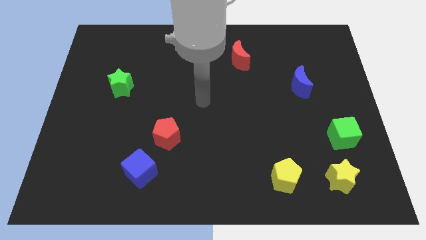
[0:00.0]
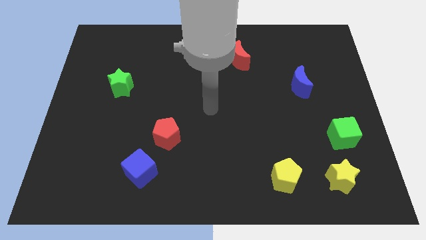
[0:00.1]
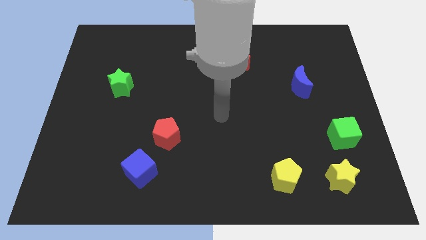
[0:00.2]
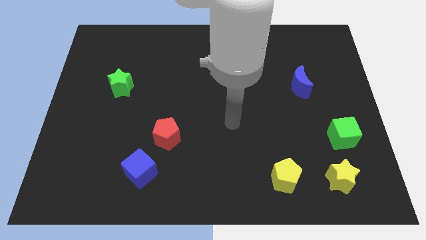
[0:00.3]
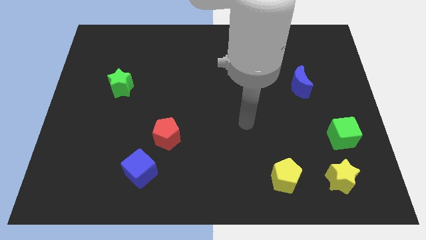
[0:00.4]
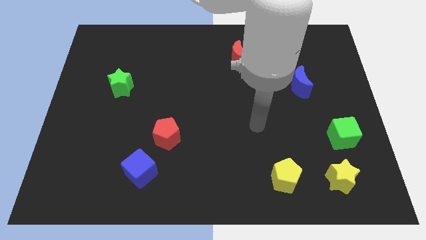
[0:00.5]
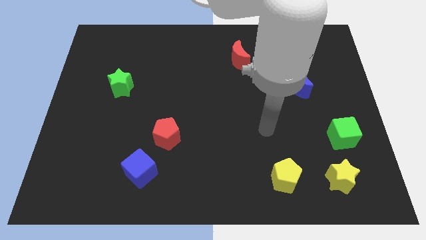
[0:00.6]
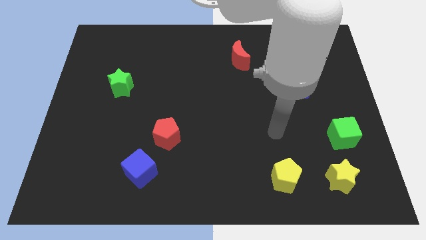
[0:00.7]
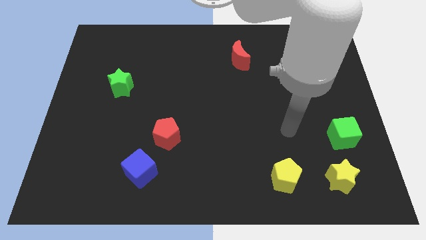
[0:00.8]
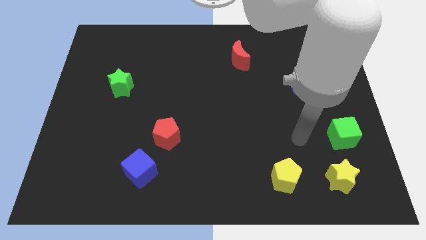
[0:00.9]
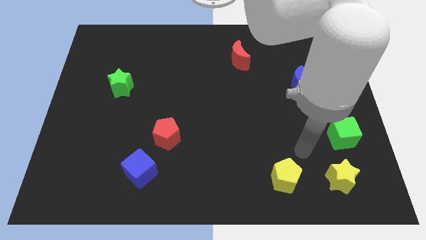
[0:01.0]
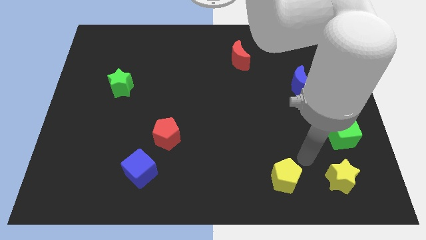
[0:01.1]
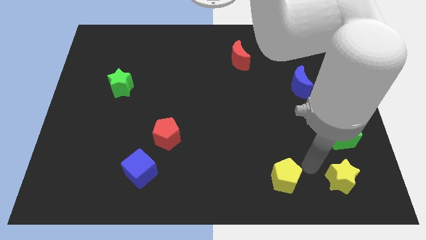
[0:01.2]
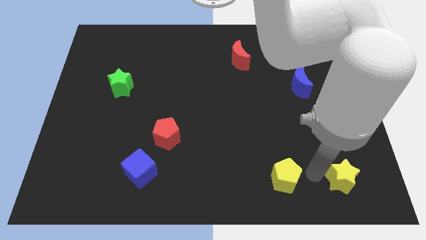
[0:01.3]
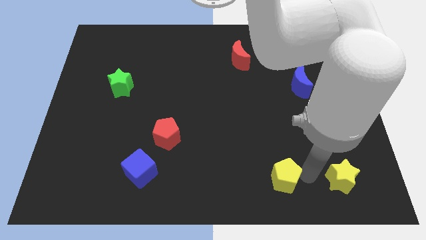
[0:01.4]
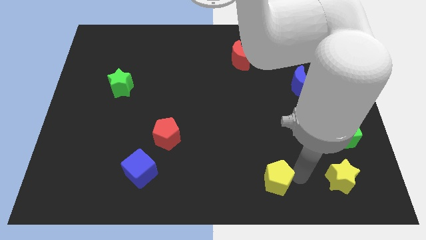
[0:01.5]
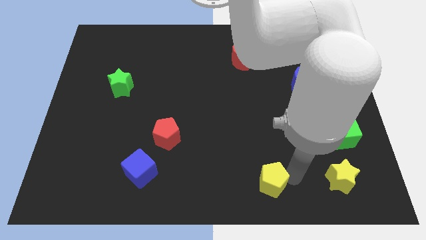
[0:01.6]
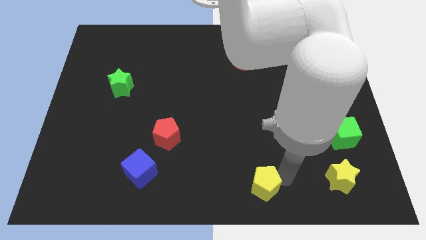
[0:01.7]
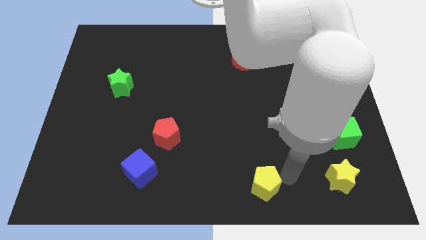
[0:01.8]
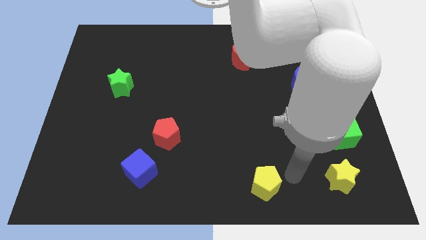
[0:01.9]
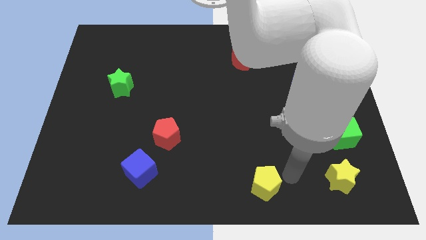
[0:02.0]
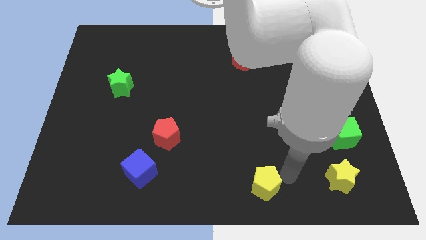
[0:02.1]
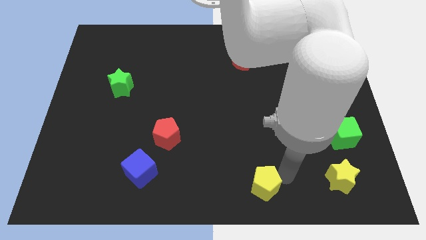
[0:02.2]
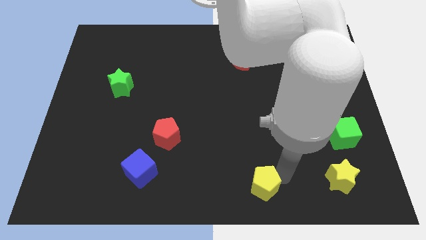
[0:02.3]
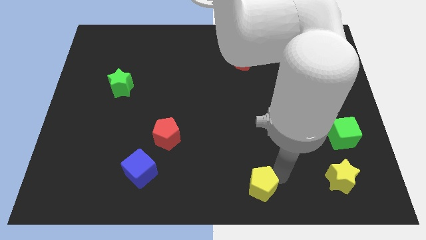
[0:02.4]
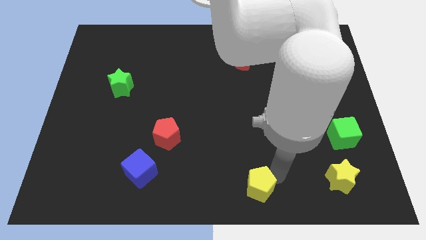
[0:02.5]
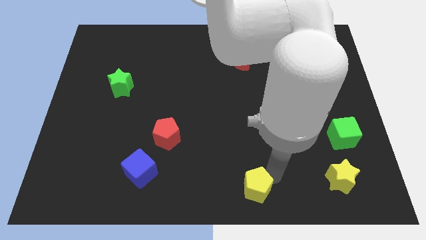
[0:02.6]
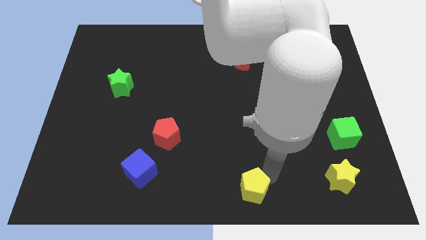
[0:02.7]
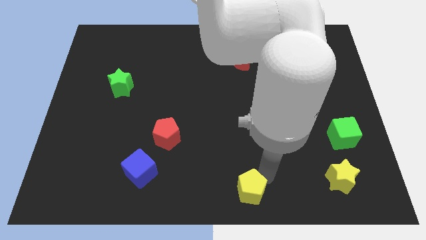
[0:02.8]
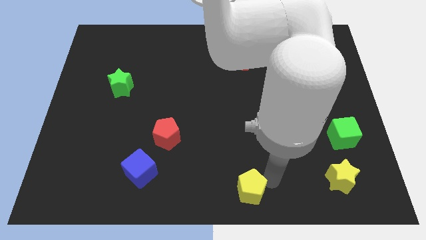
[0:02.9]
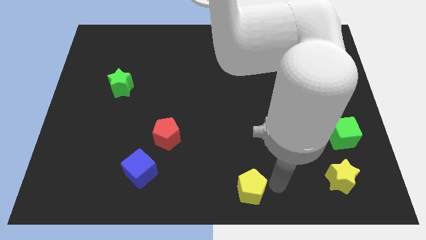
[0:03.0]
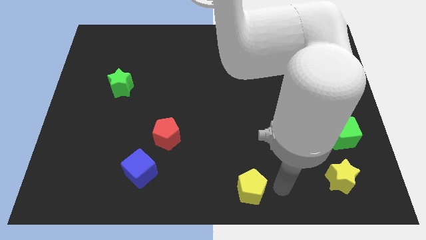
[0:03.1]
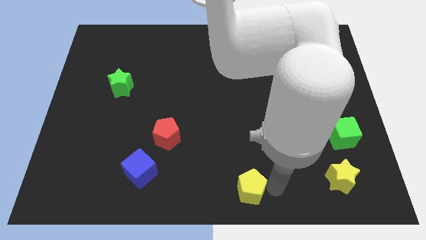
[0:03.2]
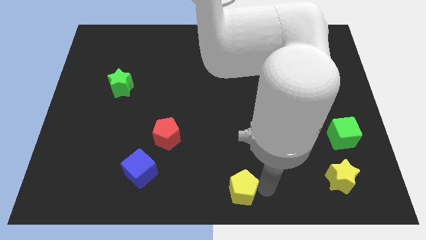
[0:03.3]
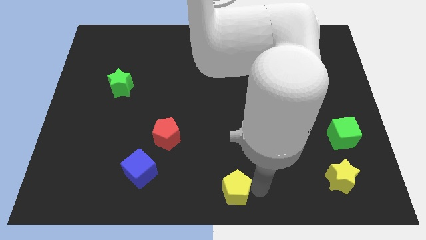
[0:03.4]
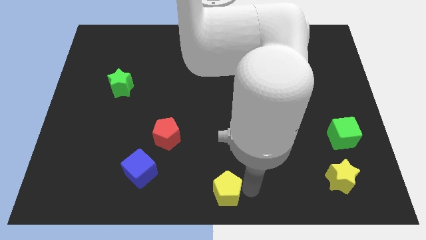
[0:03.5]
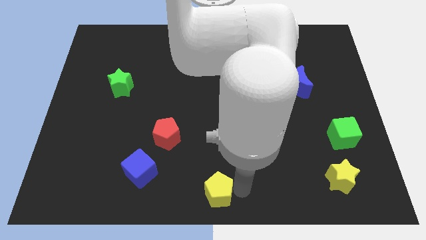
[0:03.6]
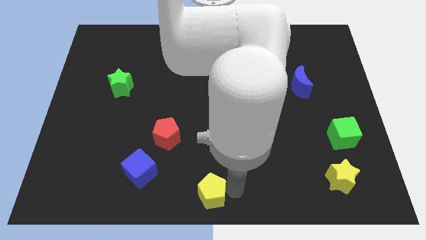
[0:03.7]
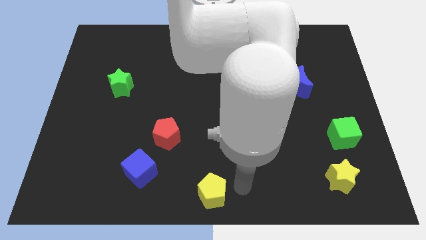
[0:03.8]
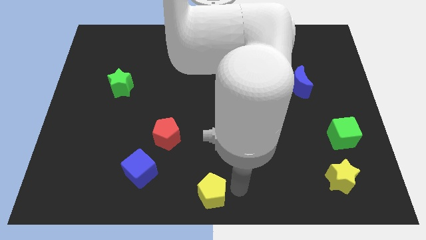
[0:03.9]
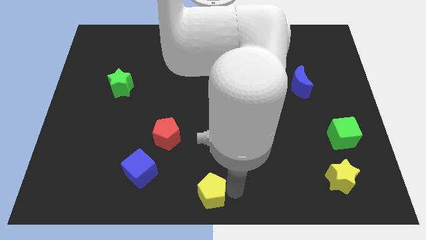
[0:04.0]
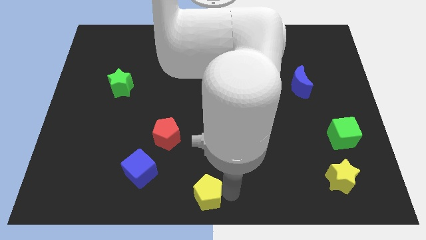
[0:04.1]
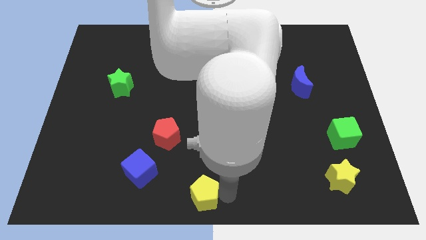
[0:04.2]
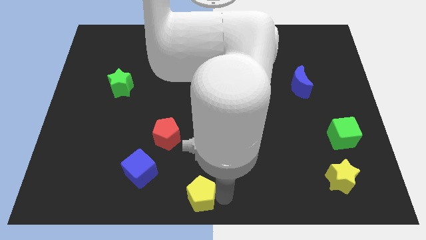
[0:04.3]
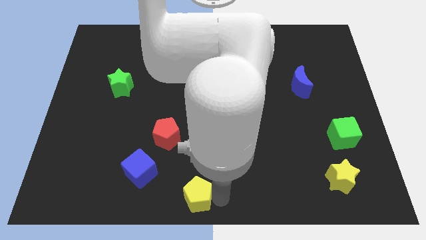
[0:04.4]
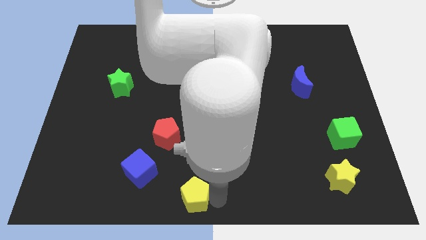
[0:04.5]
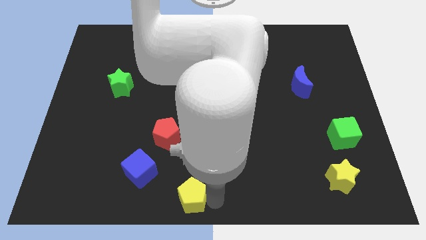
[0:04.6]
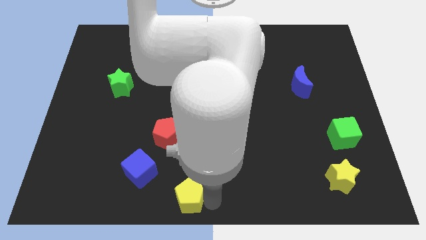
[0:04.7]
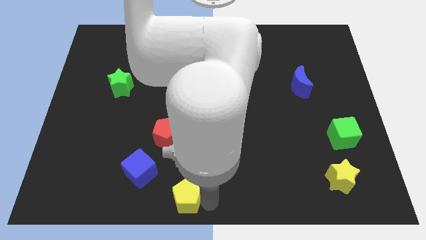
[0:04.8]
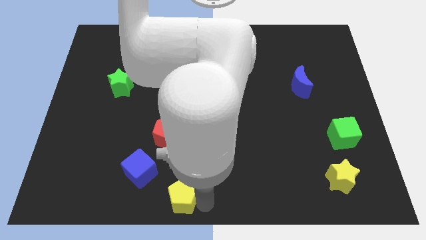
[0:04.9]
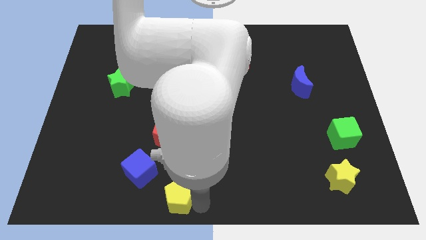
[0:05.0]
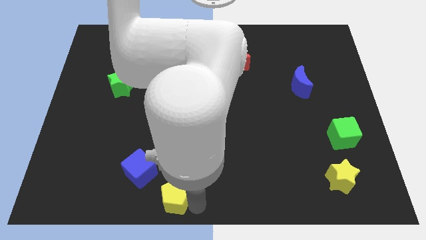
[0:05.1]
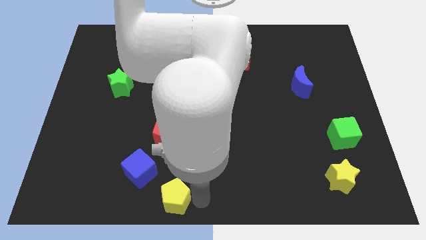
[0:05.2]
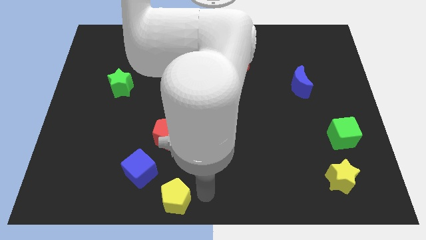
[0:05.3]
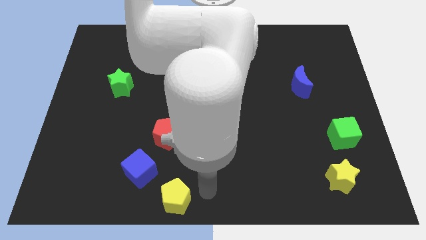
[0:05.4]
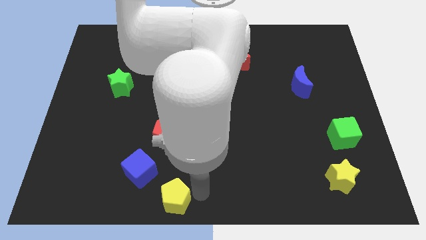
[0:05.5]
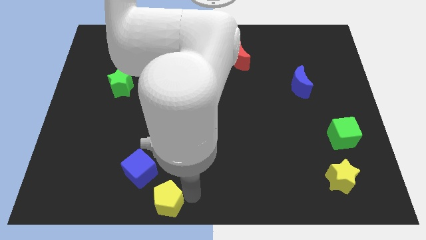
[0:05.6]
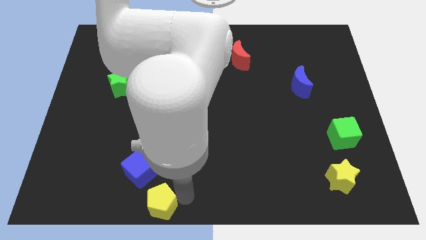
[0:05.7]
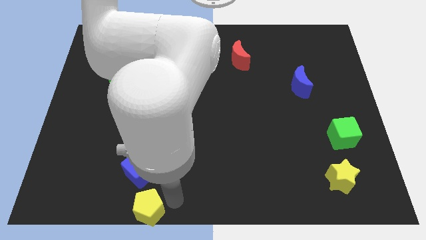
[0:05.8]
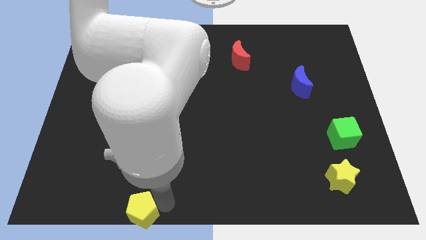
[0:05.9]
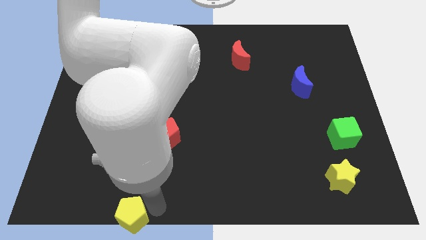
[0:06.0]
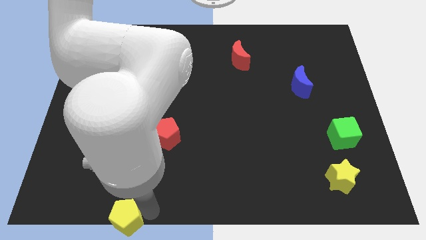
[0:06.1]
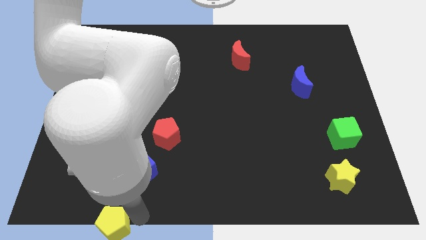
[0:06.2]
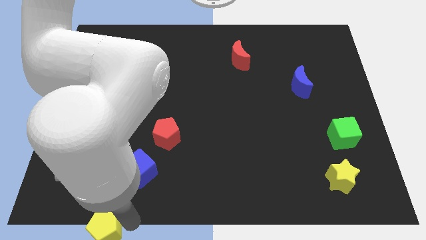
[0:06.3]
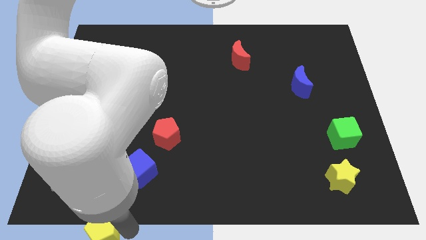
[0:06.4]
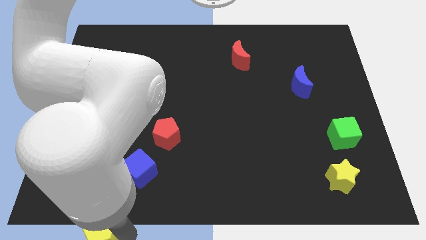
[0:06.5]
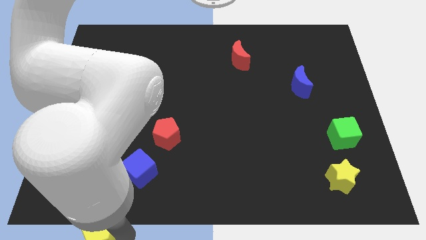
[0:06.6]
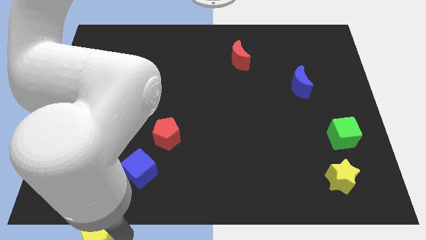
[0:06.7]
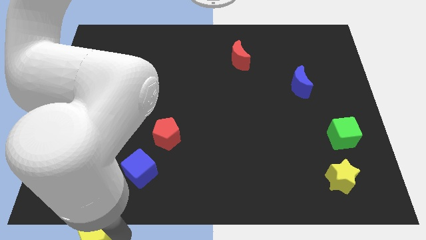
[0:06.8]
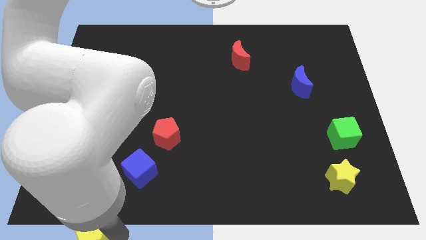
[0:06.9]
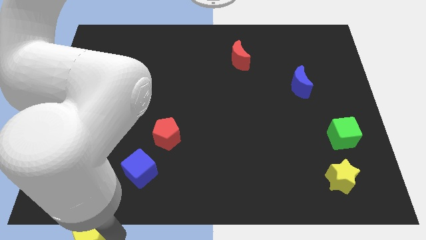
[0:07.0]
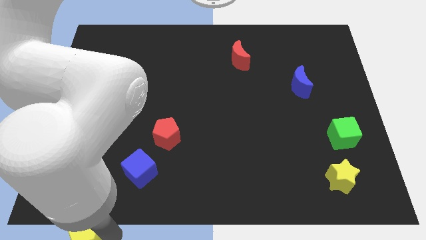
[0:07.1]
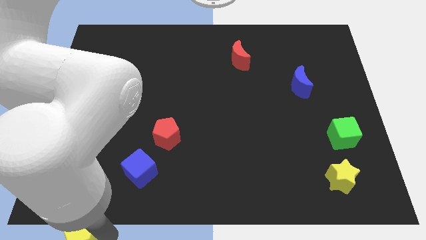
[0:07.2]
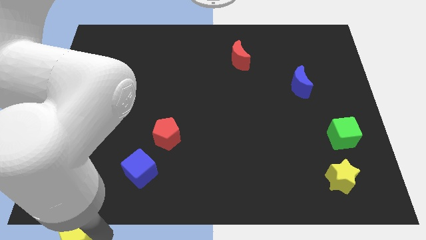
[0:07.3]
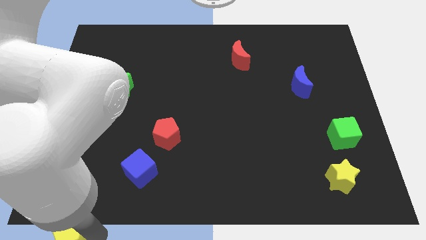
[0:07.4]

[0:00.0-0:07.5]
put the yellow pentagon to the bottom left of the board
